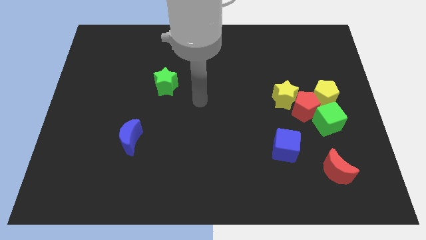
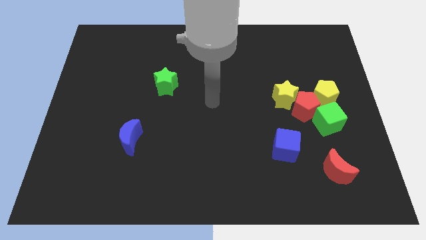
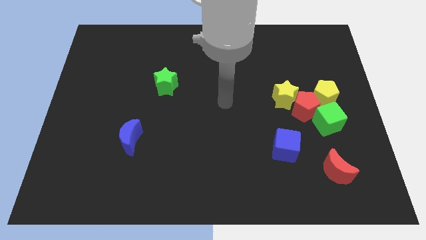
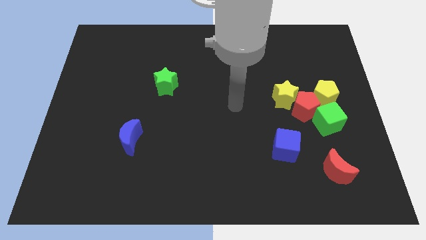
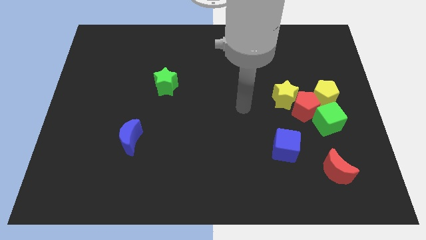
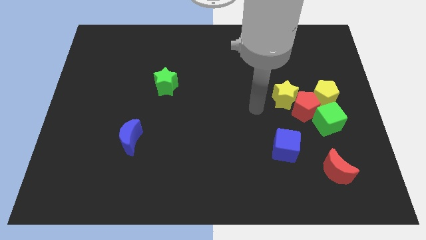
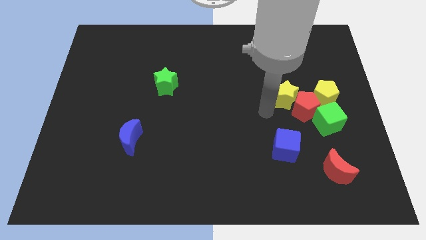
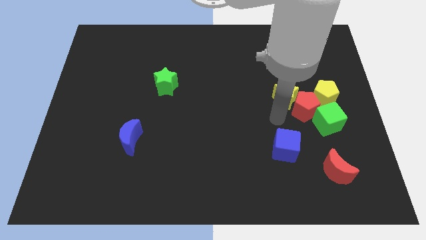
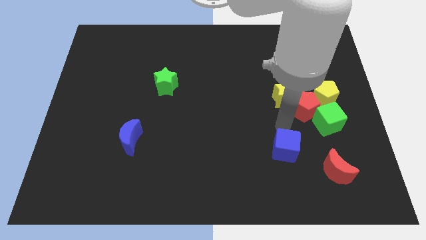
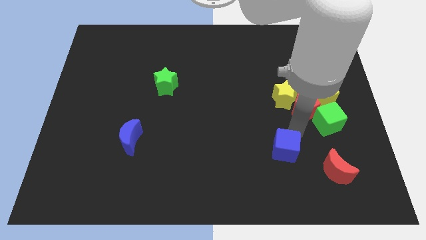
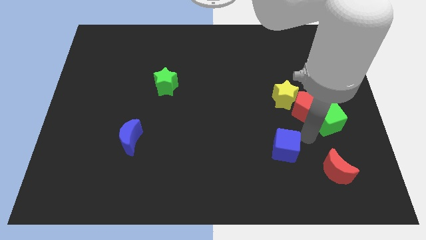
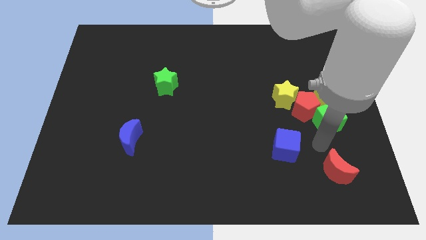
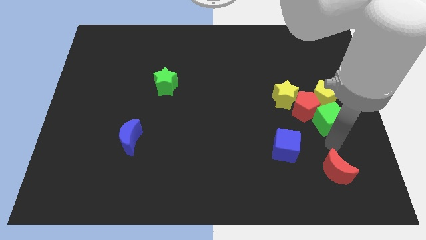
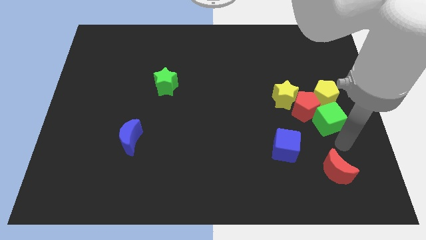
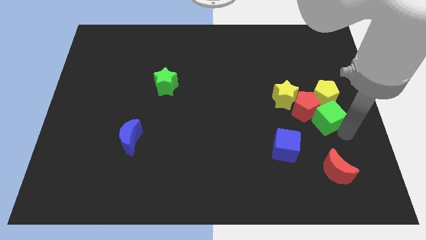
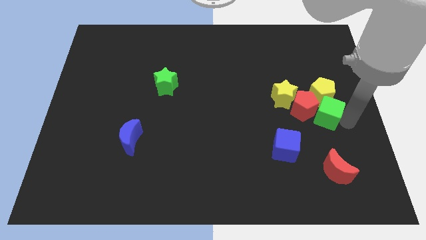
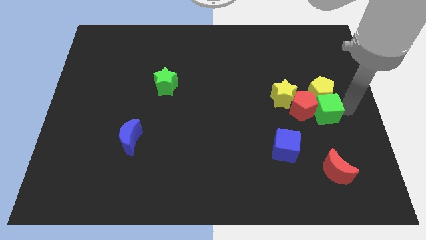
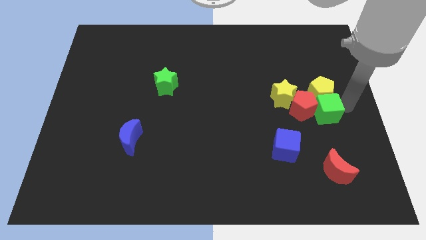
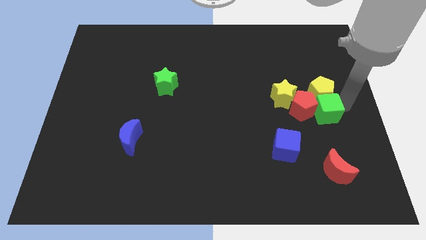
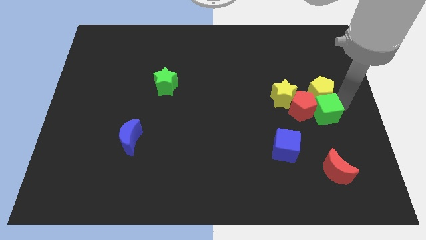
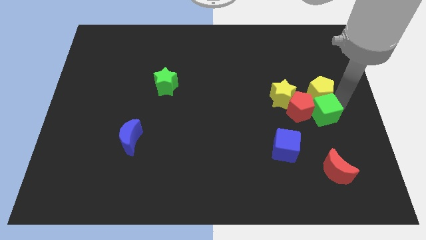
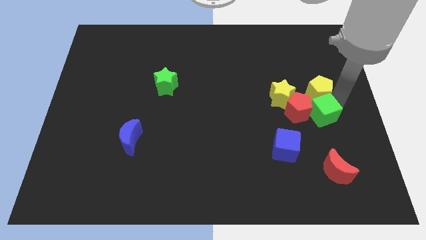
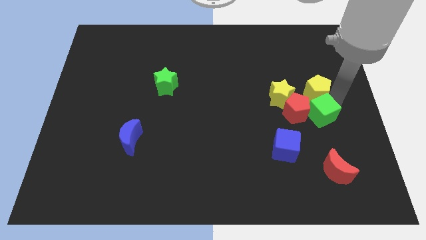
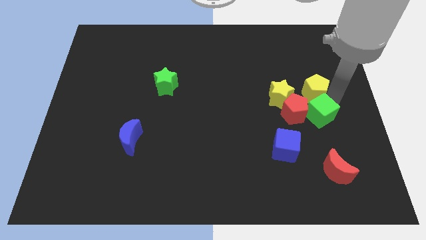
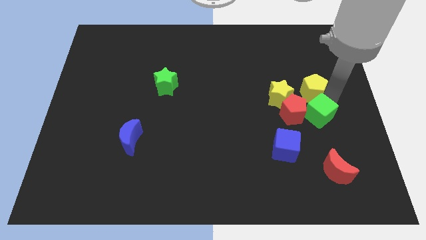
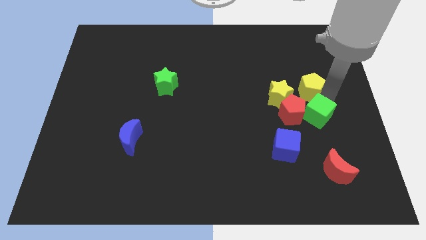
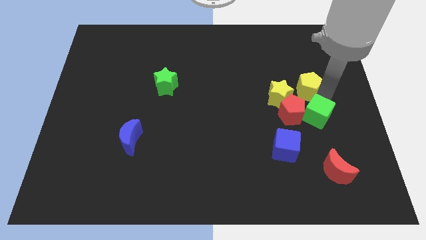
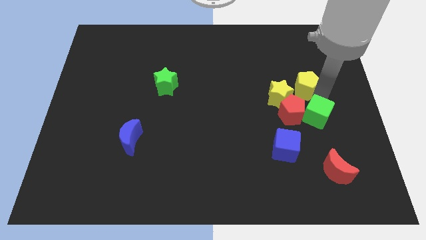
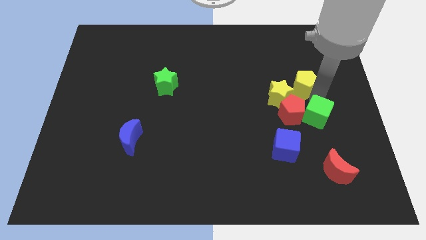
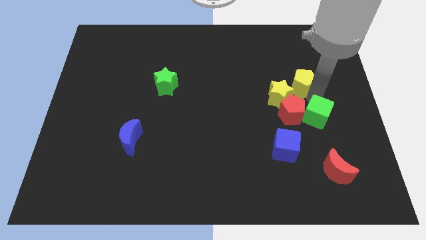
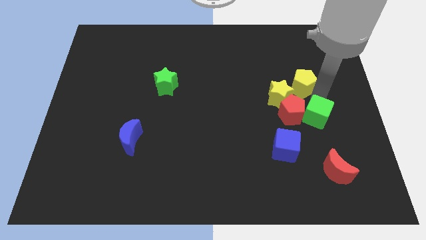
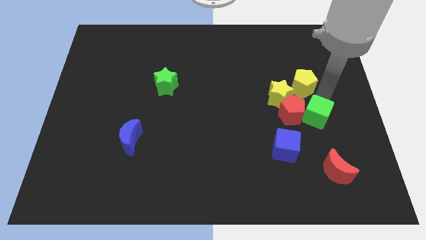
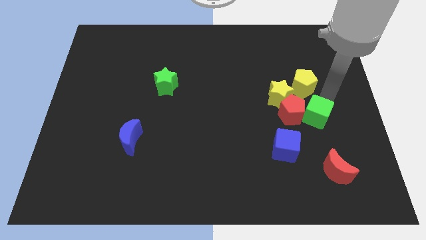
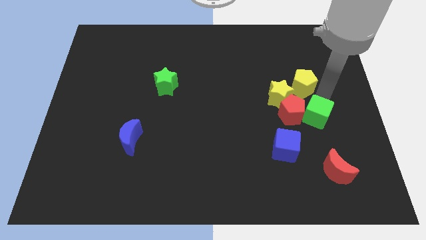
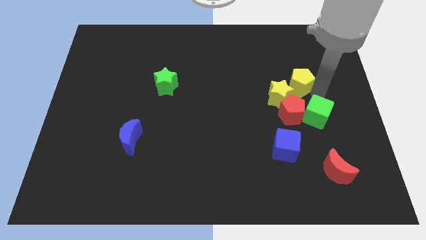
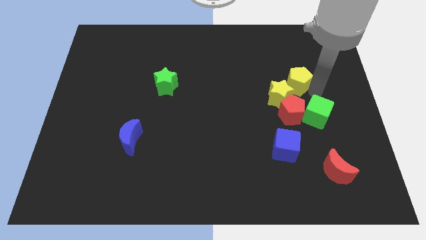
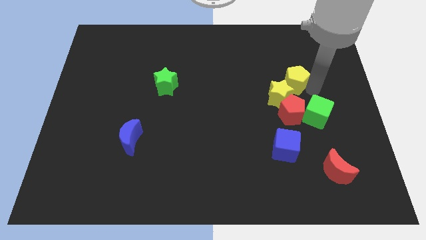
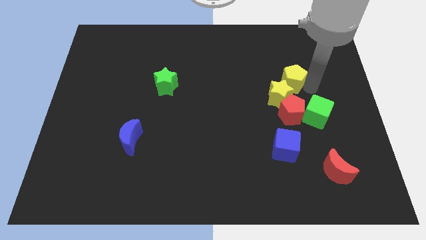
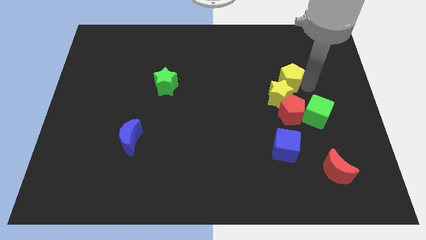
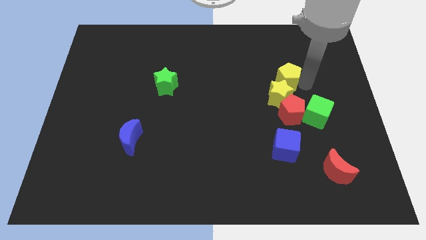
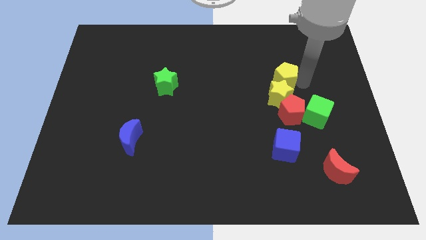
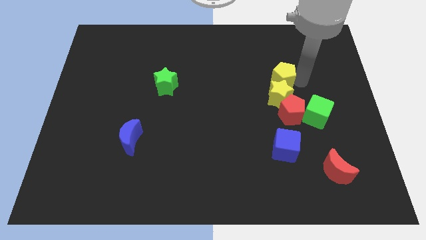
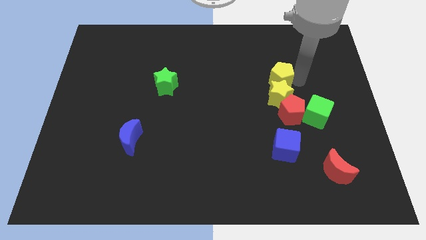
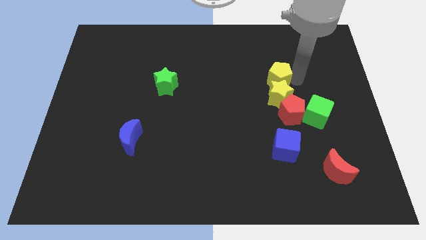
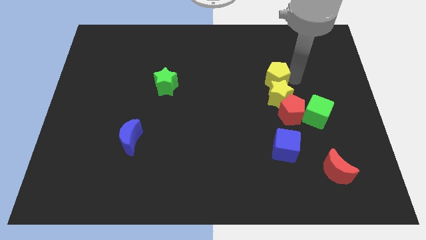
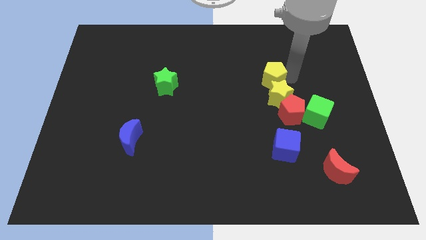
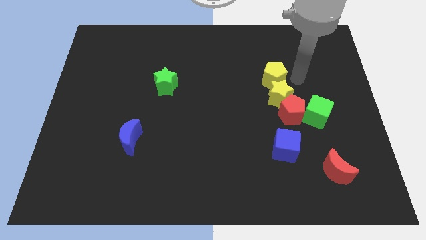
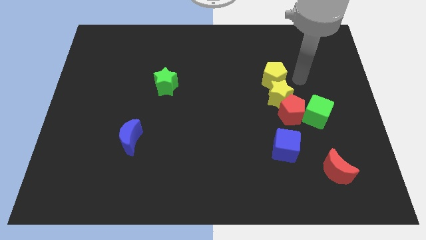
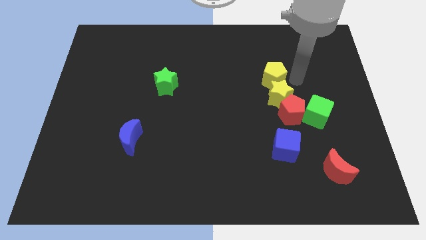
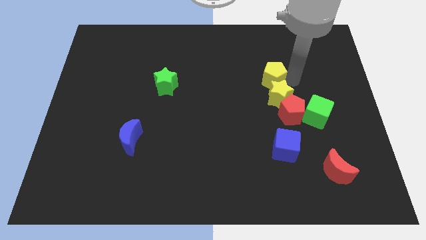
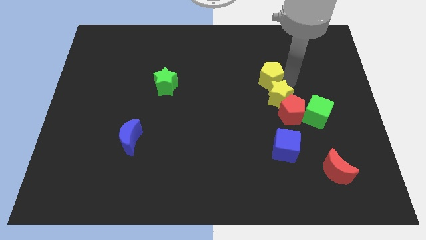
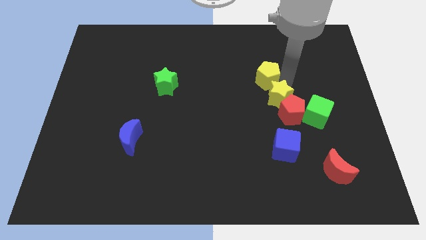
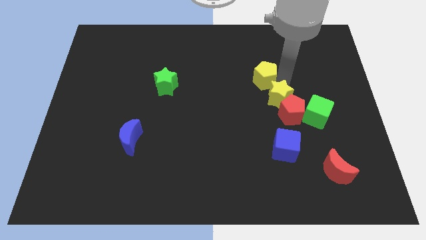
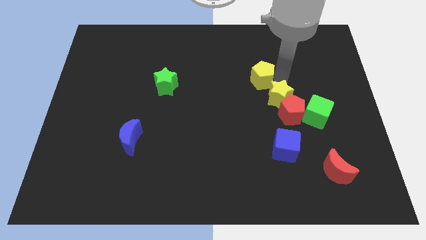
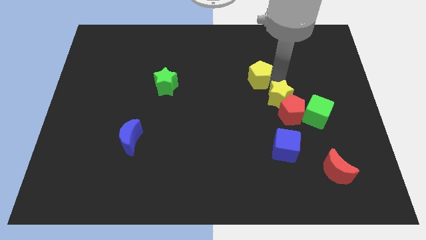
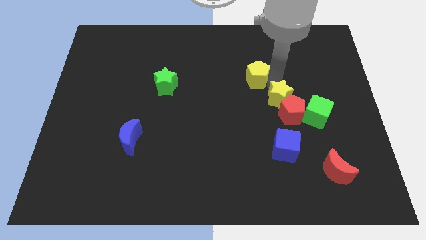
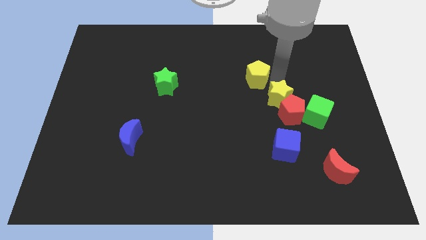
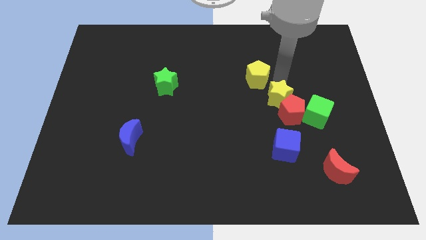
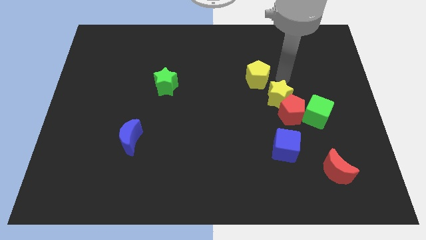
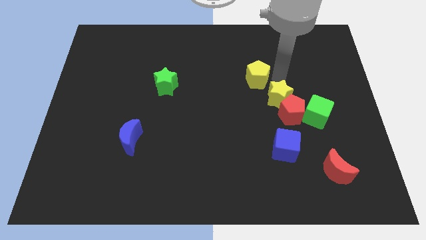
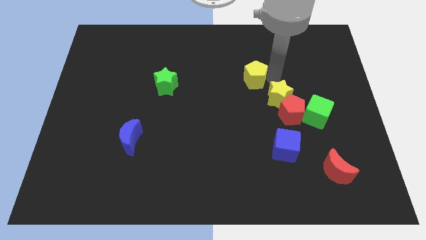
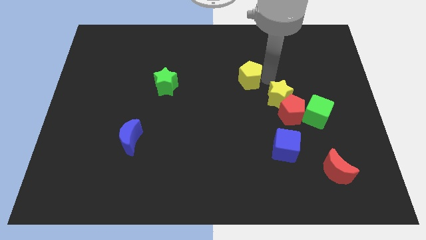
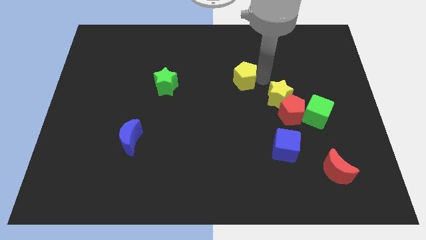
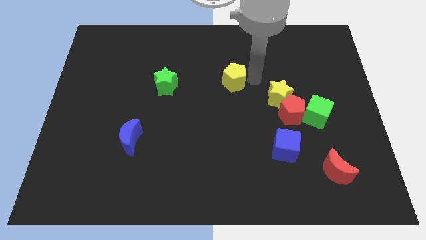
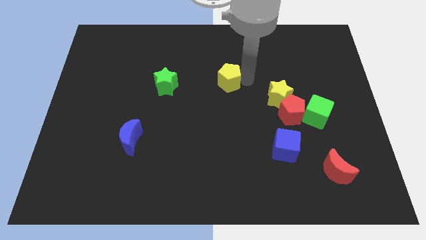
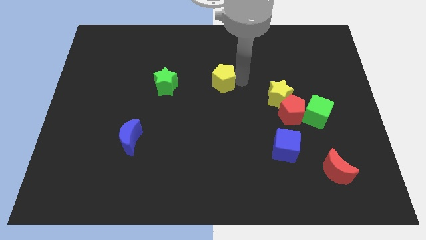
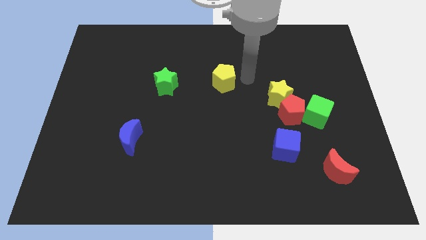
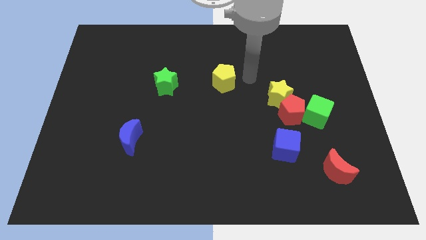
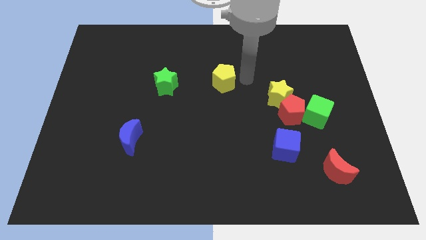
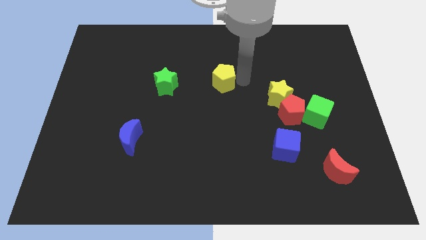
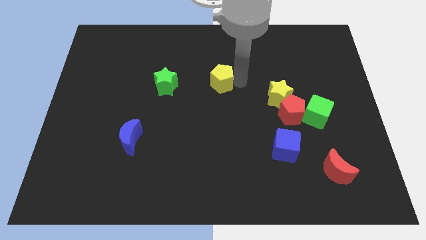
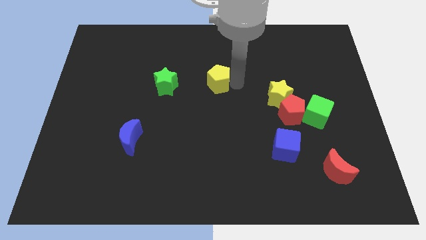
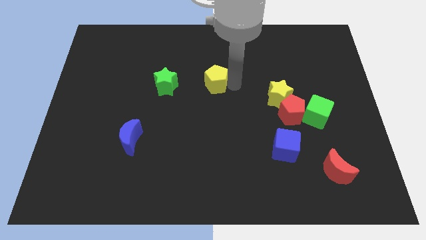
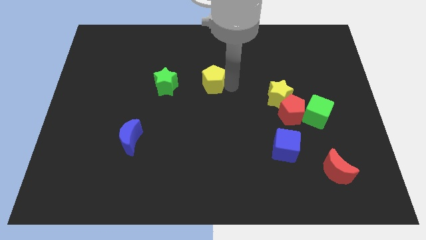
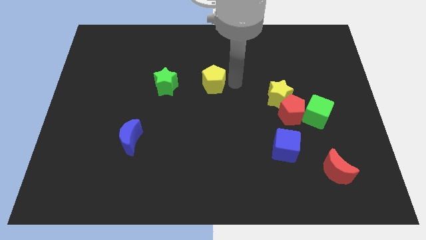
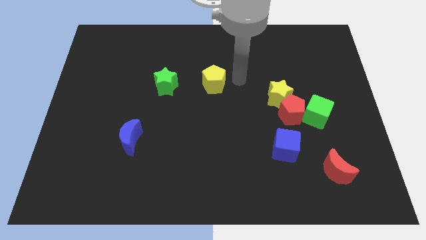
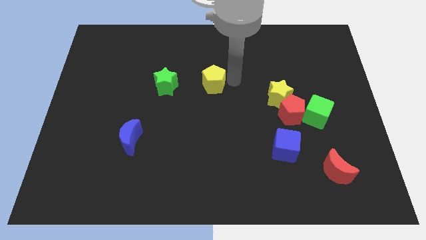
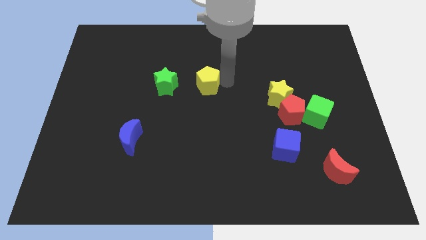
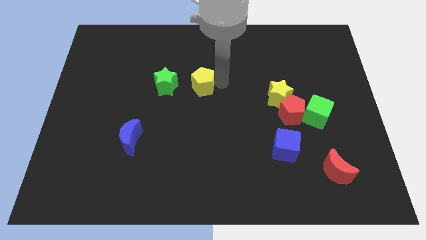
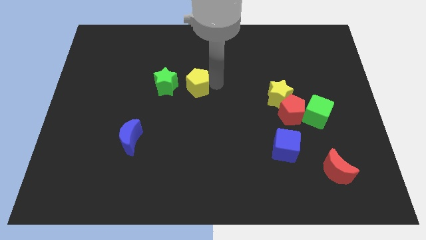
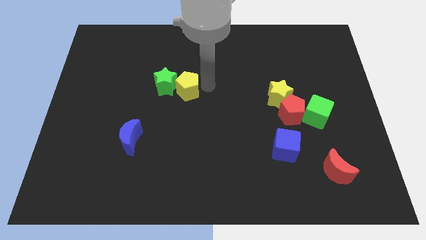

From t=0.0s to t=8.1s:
push the yellow pentagon towards the green star
